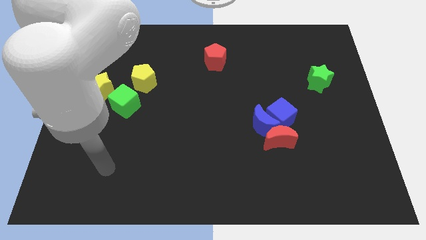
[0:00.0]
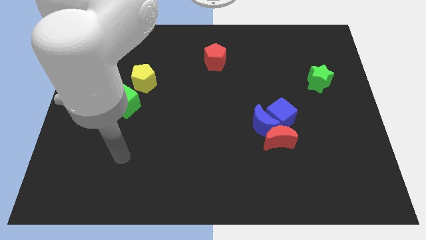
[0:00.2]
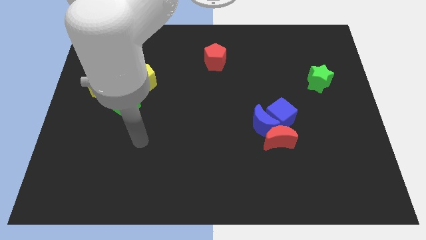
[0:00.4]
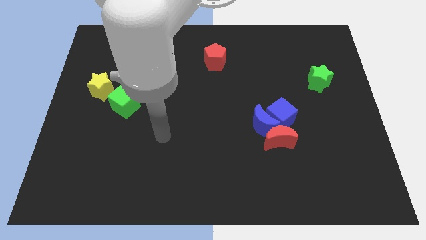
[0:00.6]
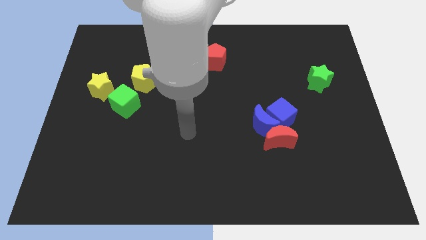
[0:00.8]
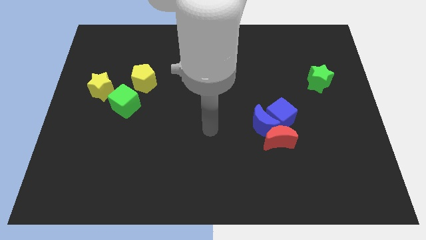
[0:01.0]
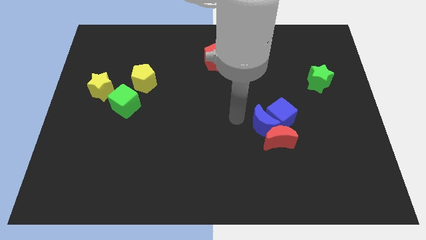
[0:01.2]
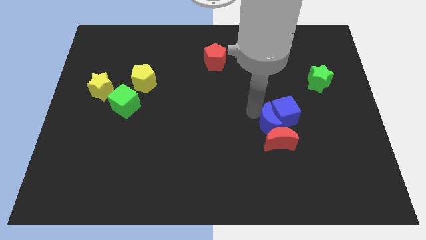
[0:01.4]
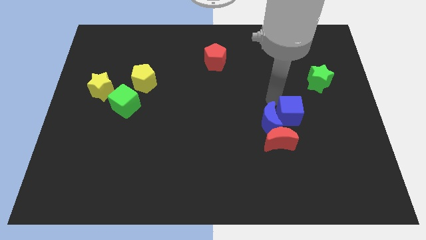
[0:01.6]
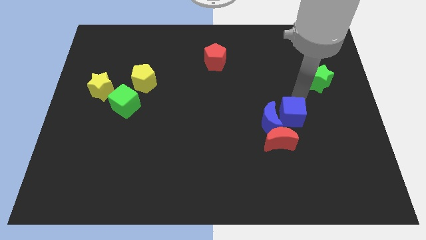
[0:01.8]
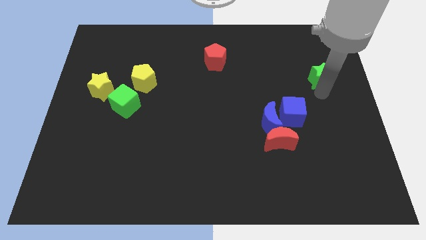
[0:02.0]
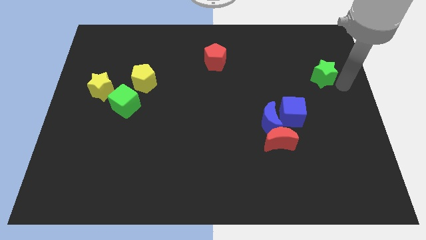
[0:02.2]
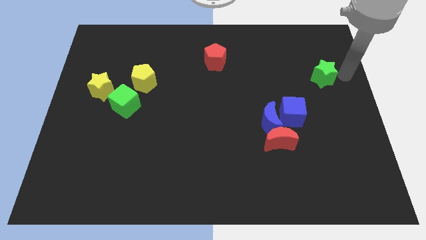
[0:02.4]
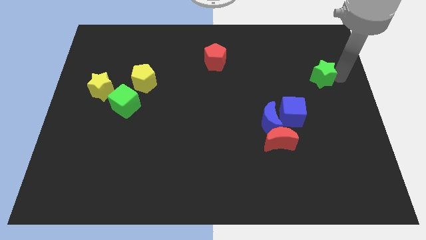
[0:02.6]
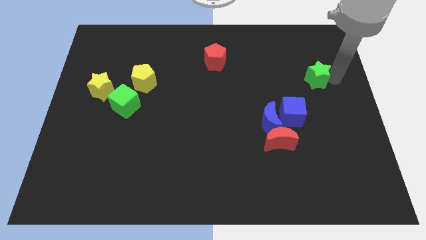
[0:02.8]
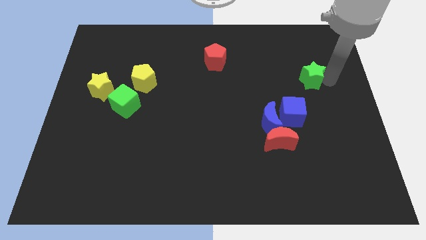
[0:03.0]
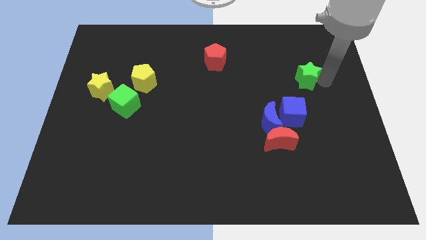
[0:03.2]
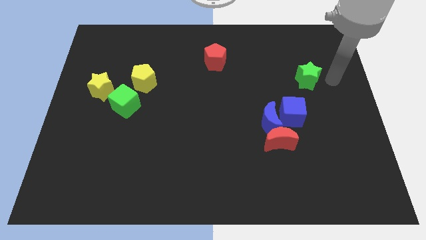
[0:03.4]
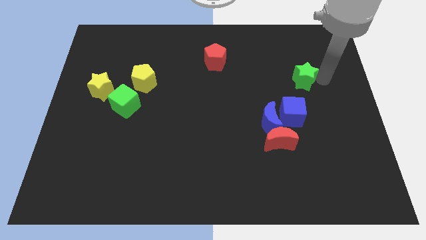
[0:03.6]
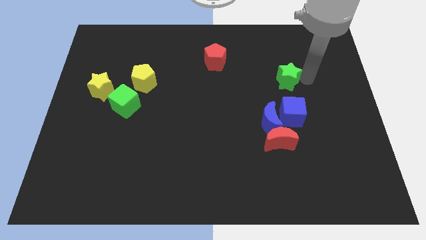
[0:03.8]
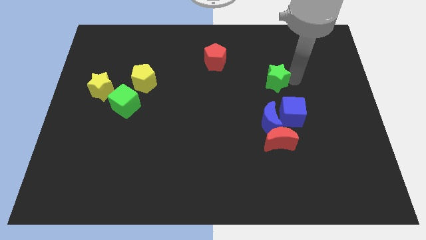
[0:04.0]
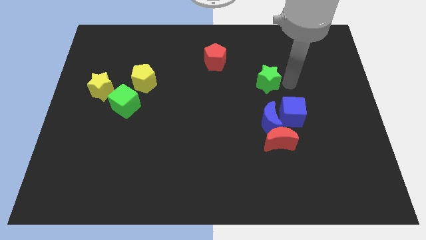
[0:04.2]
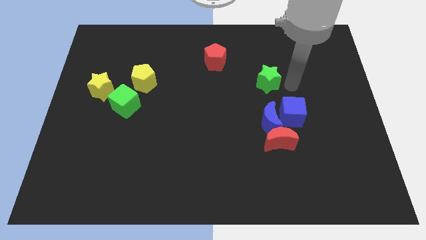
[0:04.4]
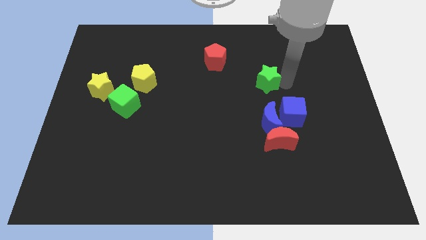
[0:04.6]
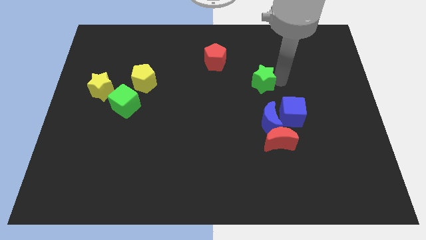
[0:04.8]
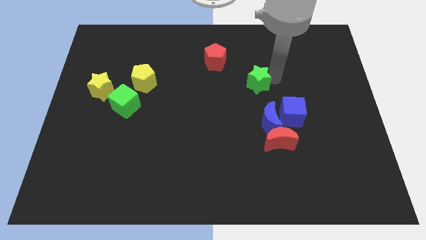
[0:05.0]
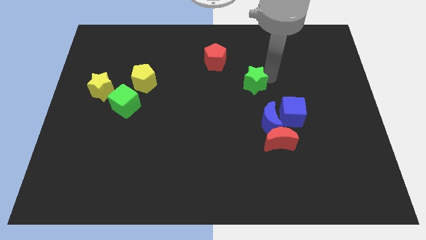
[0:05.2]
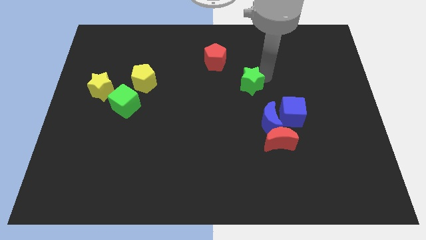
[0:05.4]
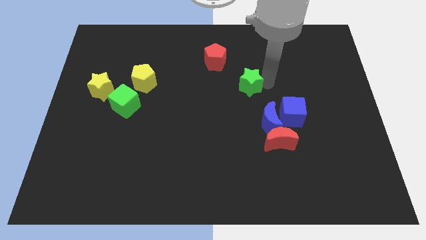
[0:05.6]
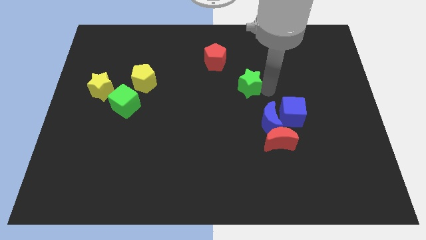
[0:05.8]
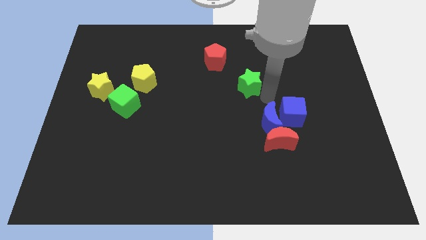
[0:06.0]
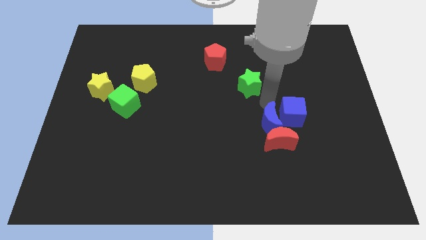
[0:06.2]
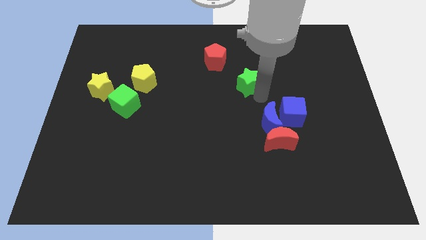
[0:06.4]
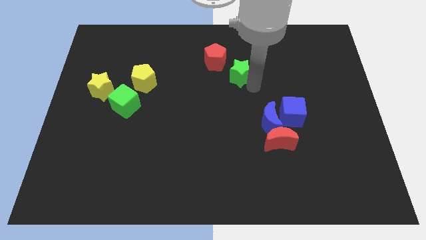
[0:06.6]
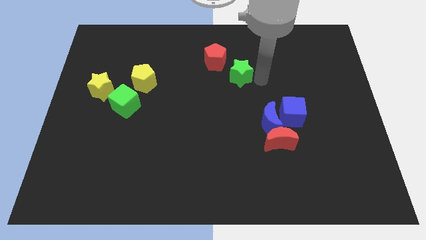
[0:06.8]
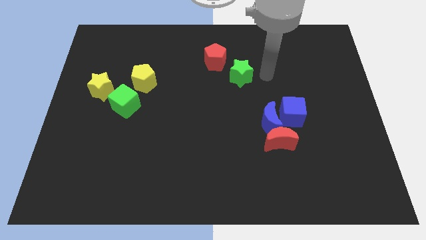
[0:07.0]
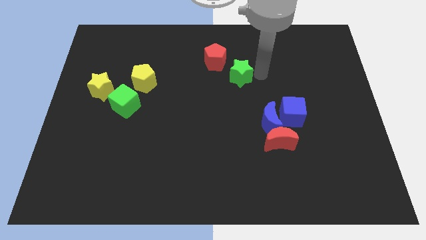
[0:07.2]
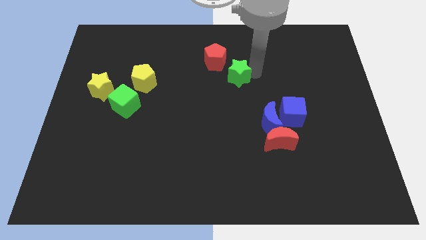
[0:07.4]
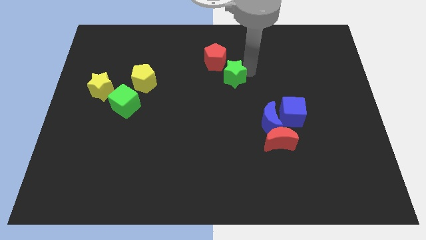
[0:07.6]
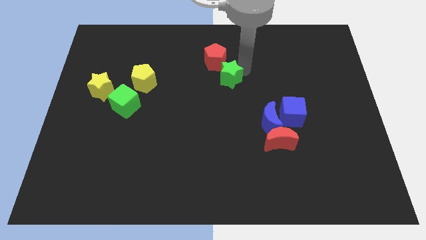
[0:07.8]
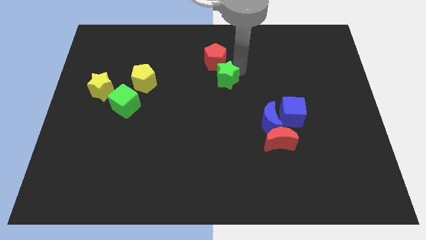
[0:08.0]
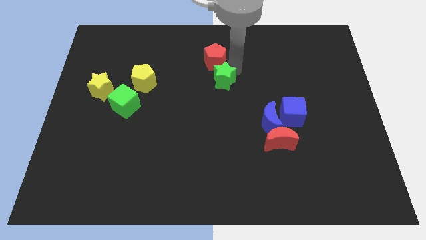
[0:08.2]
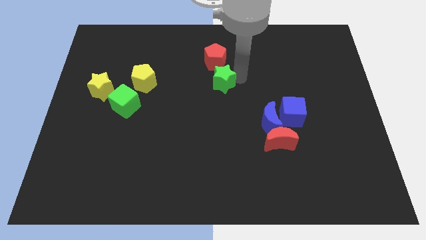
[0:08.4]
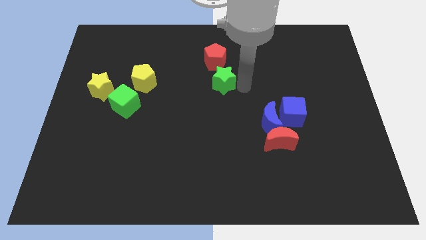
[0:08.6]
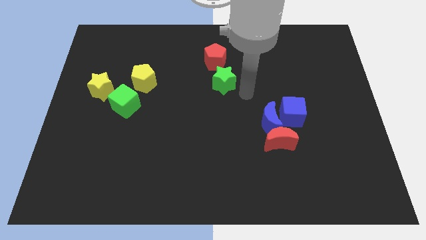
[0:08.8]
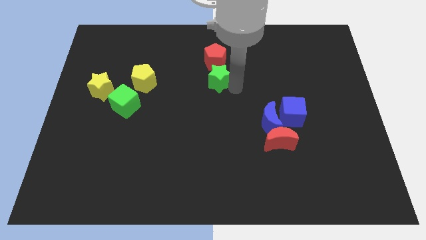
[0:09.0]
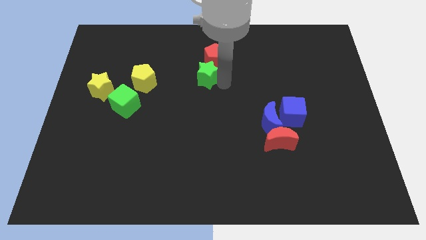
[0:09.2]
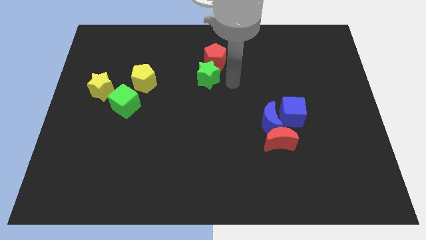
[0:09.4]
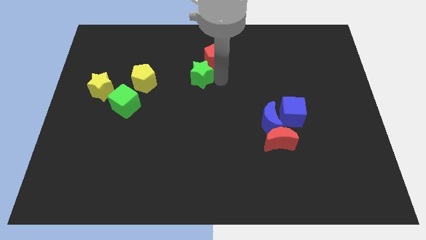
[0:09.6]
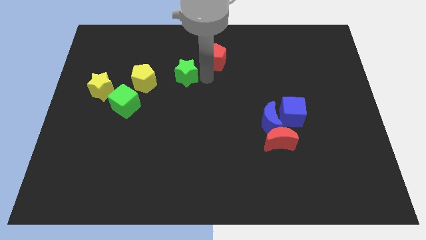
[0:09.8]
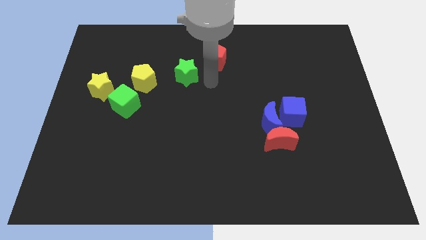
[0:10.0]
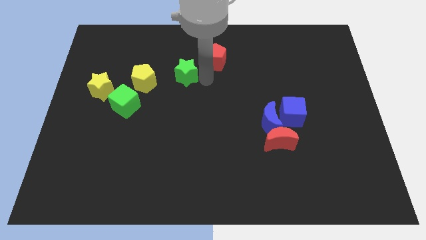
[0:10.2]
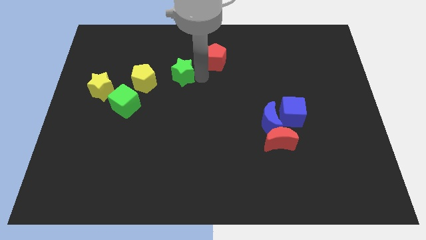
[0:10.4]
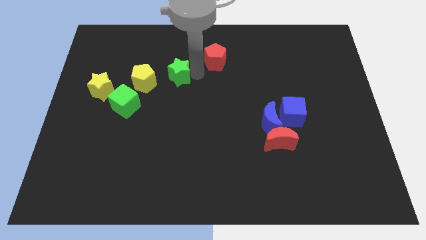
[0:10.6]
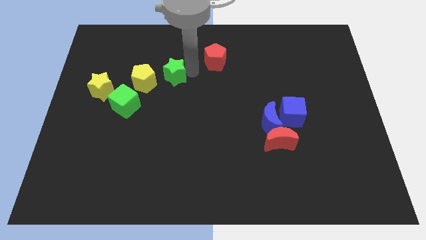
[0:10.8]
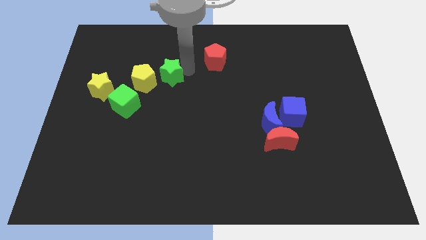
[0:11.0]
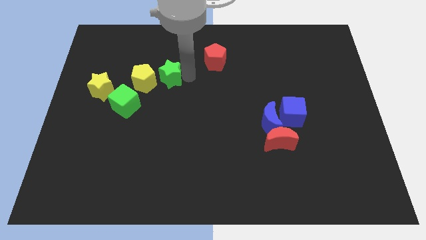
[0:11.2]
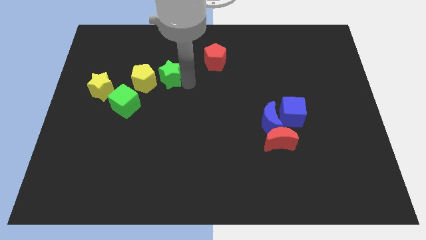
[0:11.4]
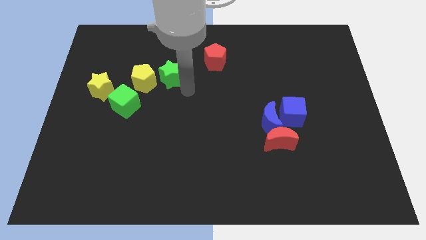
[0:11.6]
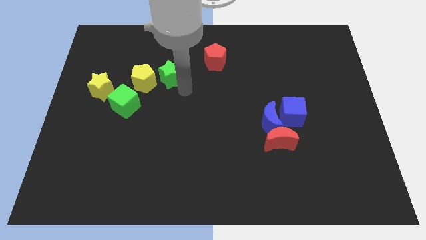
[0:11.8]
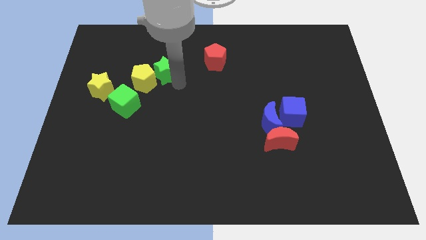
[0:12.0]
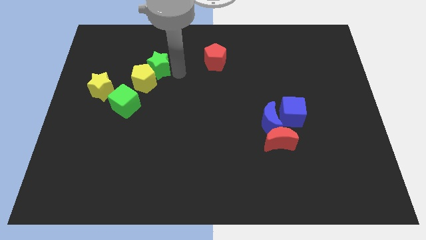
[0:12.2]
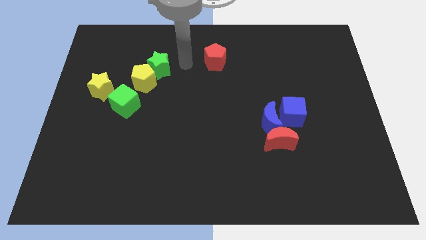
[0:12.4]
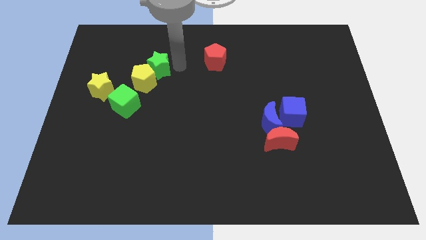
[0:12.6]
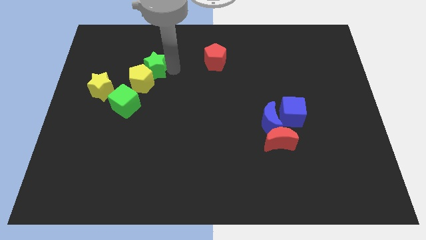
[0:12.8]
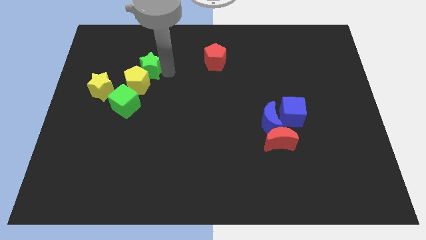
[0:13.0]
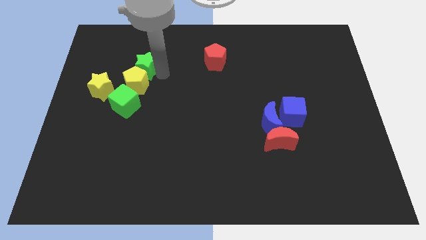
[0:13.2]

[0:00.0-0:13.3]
slide the green star to the top right of the yellow star
